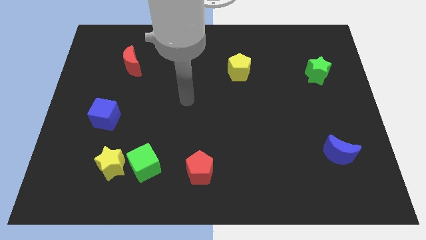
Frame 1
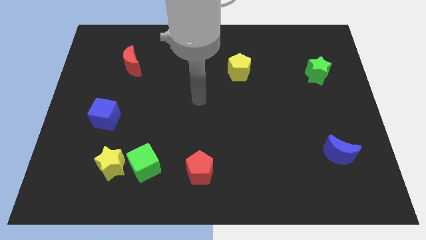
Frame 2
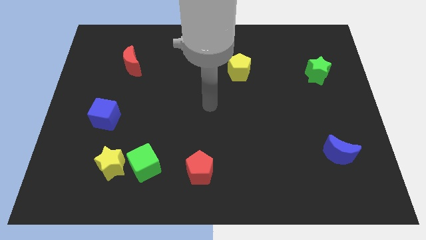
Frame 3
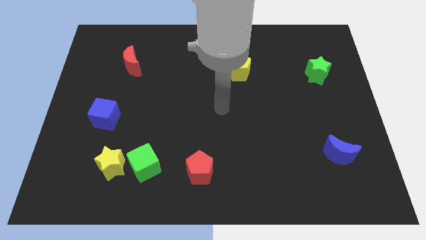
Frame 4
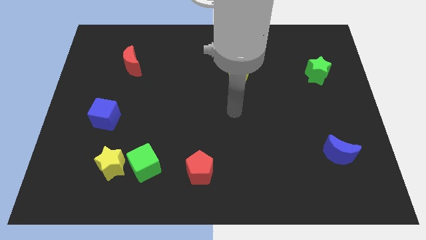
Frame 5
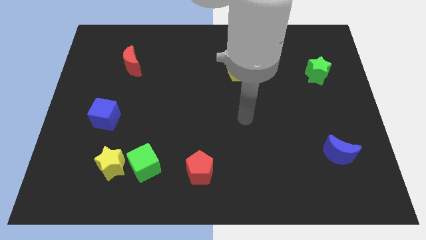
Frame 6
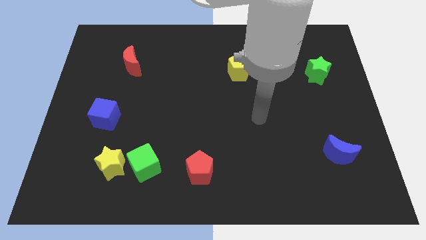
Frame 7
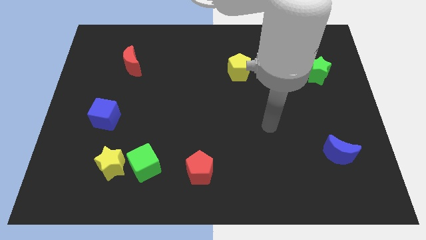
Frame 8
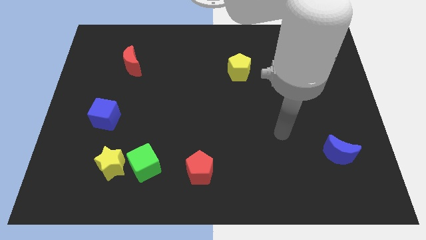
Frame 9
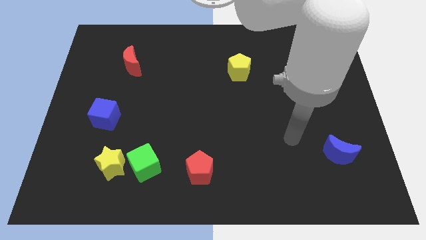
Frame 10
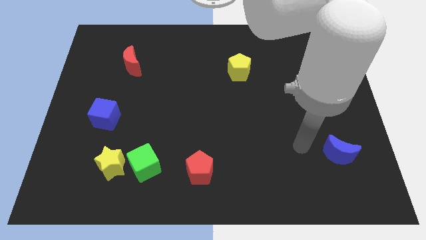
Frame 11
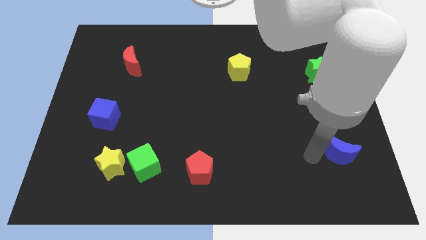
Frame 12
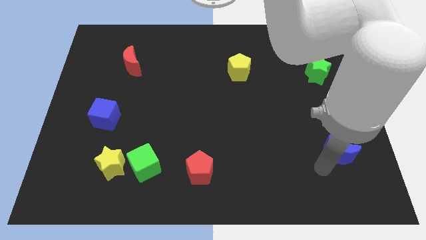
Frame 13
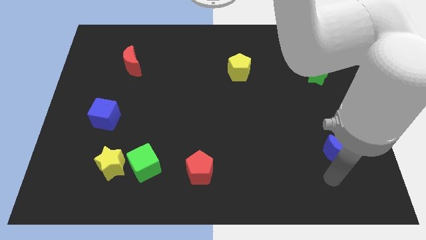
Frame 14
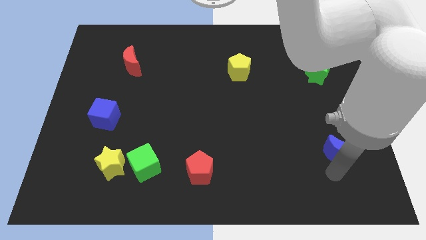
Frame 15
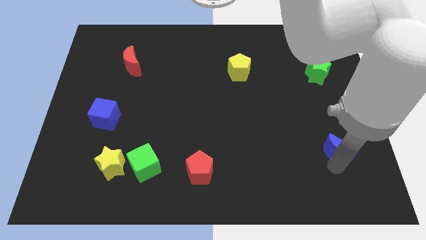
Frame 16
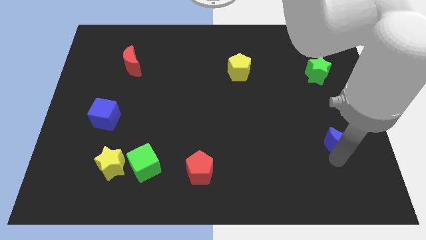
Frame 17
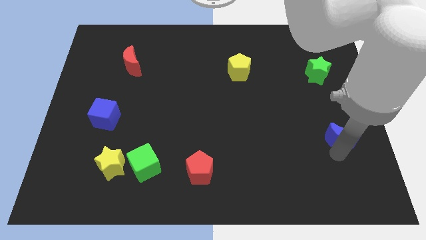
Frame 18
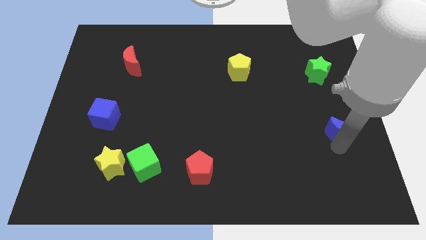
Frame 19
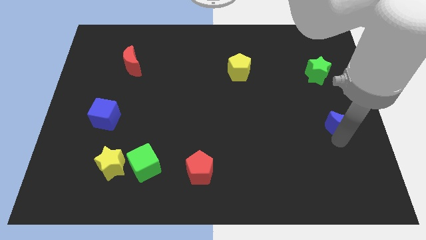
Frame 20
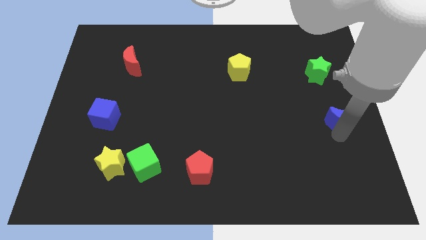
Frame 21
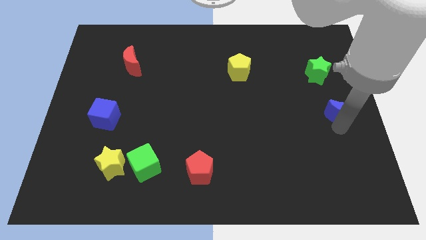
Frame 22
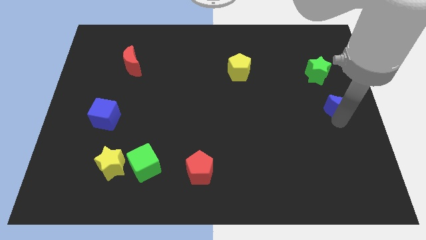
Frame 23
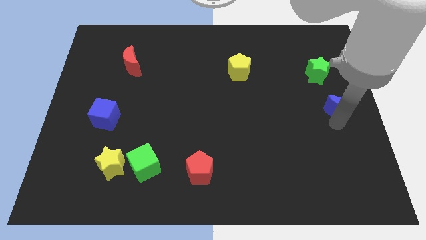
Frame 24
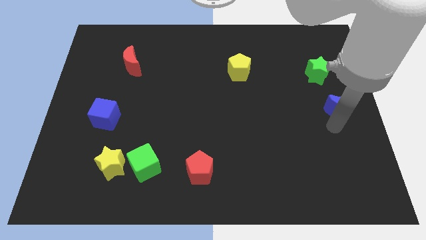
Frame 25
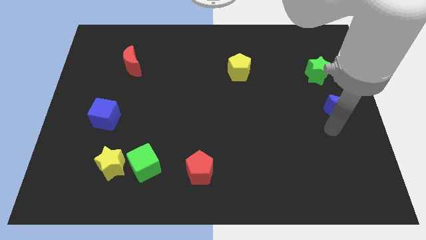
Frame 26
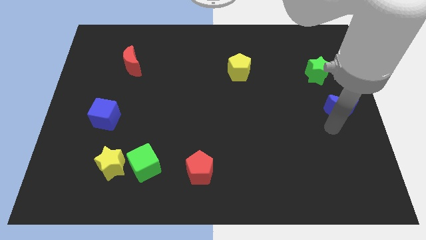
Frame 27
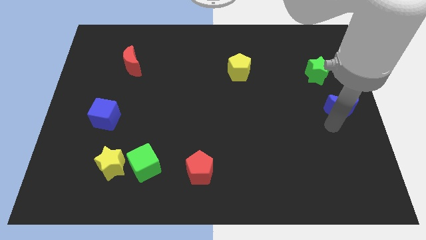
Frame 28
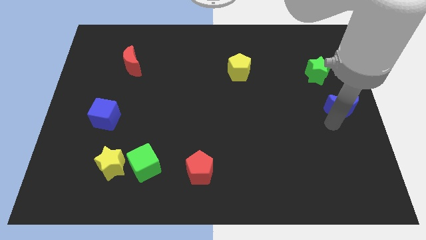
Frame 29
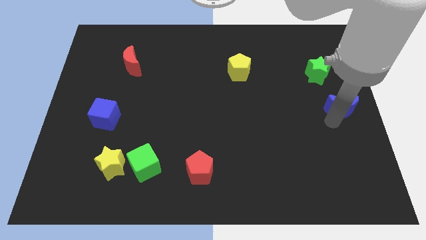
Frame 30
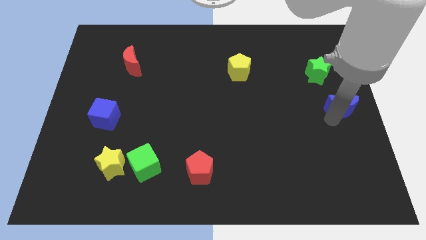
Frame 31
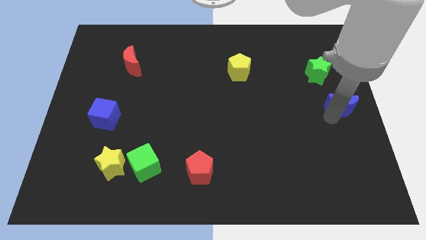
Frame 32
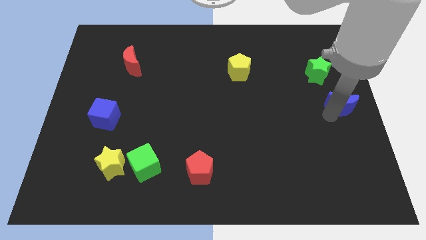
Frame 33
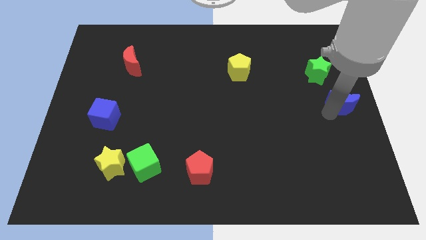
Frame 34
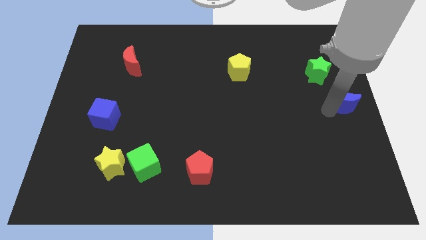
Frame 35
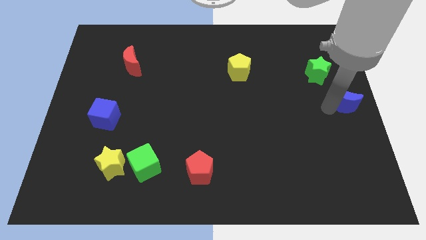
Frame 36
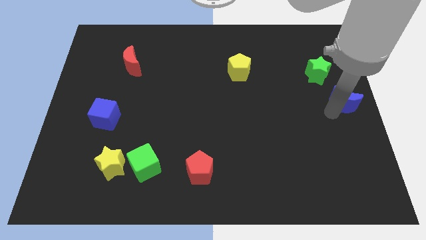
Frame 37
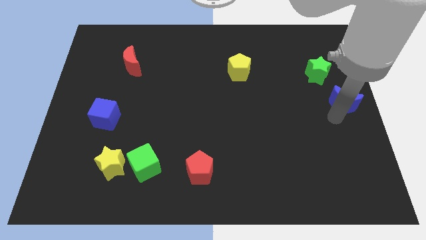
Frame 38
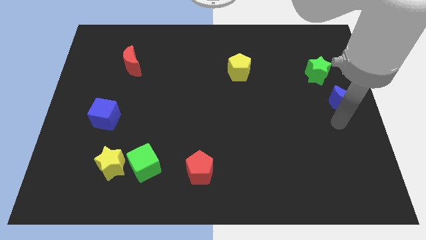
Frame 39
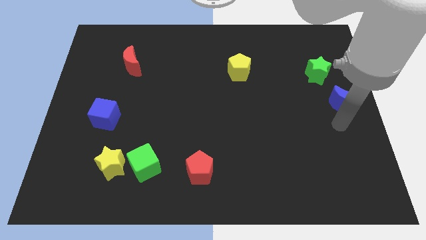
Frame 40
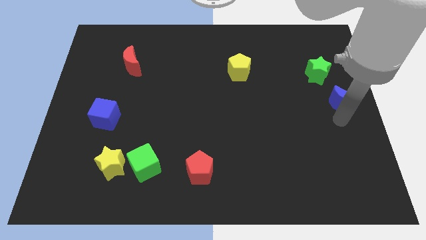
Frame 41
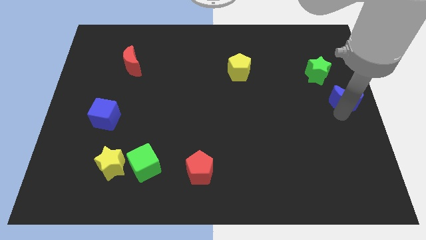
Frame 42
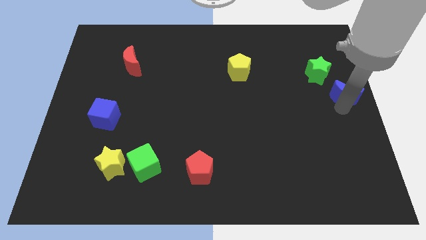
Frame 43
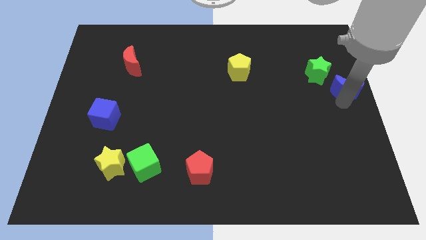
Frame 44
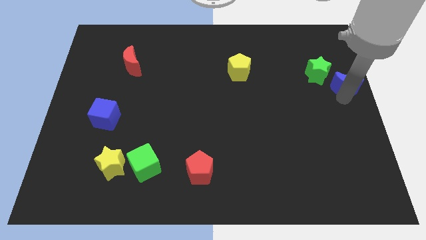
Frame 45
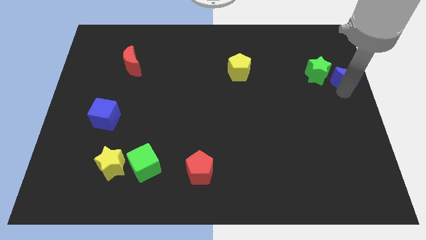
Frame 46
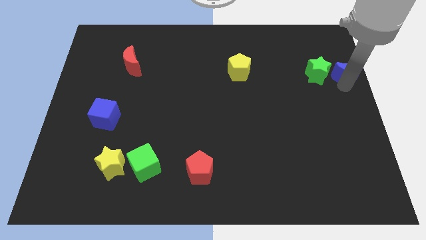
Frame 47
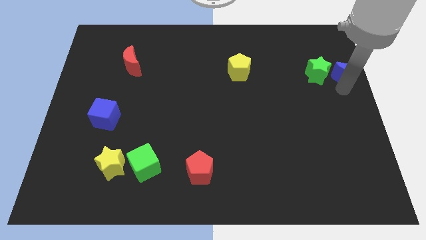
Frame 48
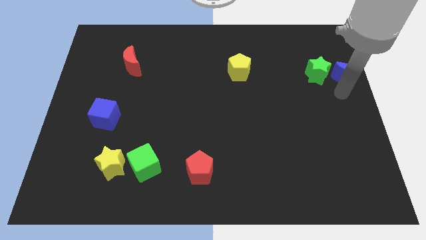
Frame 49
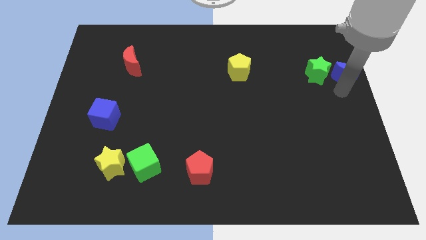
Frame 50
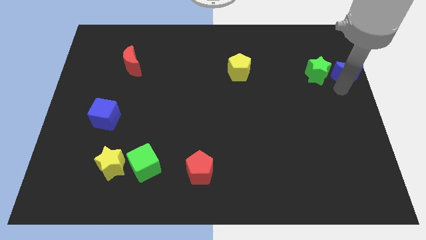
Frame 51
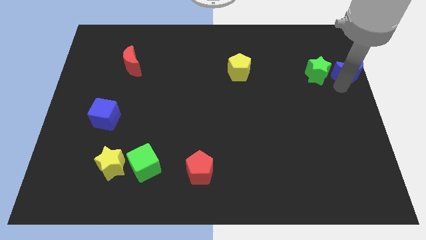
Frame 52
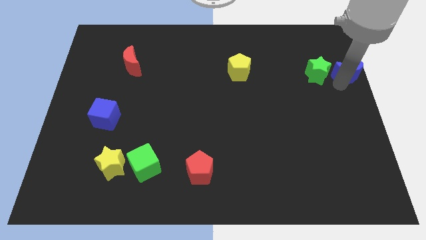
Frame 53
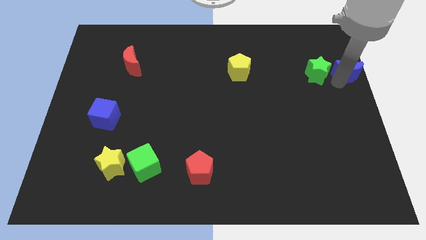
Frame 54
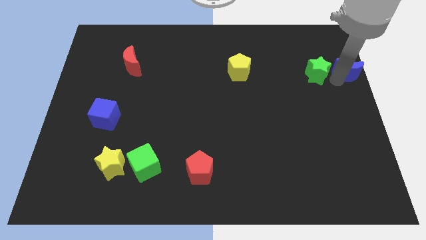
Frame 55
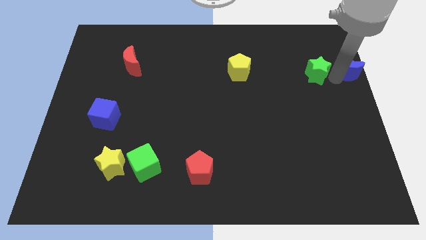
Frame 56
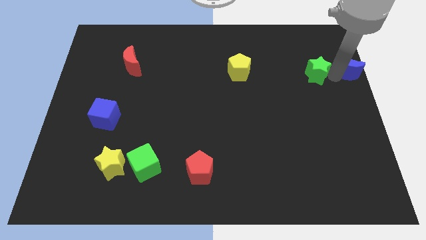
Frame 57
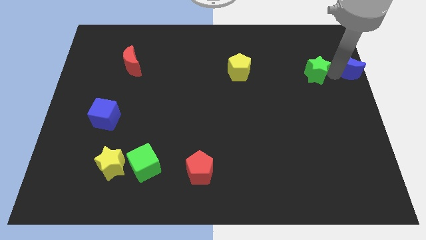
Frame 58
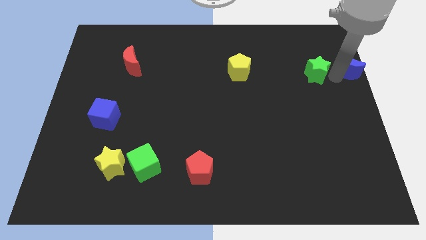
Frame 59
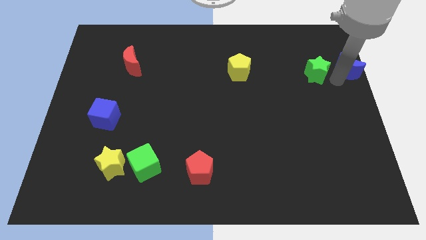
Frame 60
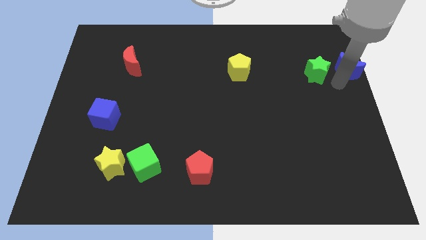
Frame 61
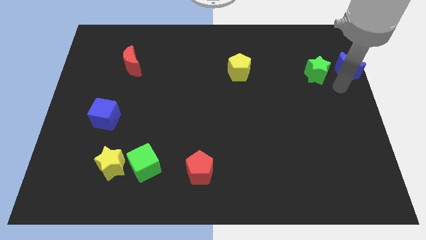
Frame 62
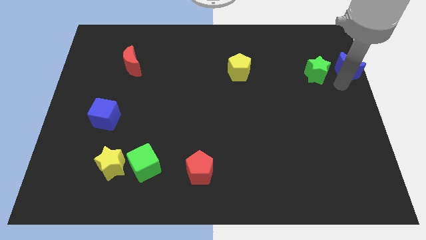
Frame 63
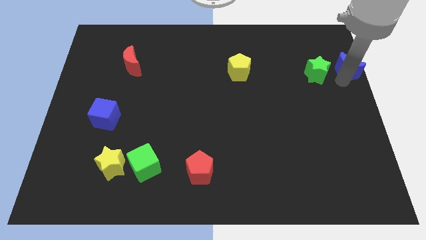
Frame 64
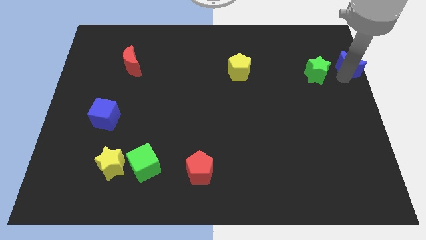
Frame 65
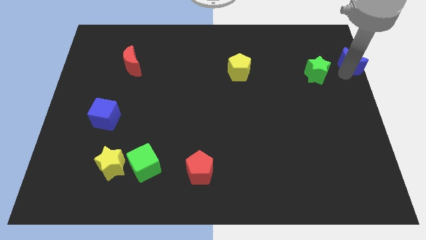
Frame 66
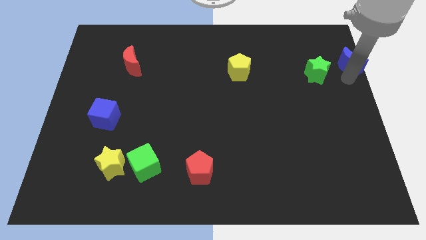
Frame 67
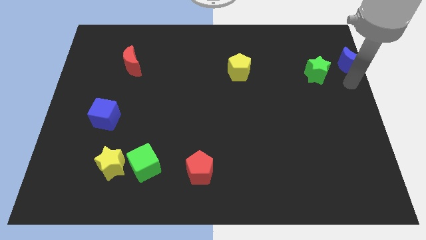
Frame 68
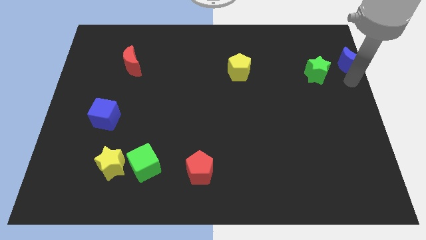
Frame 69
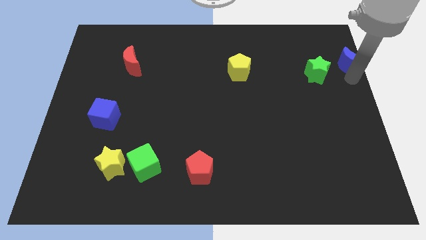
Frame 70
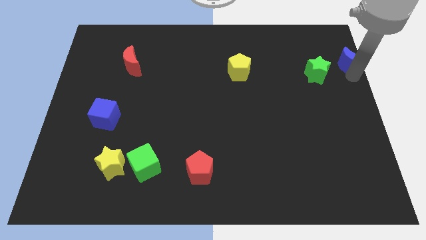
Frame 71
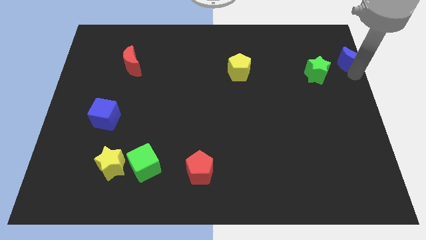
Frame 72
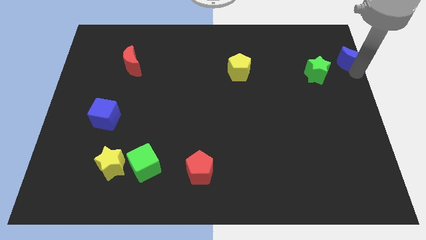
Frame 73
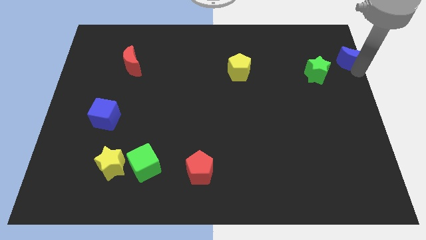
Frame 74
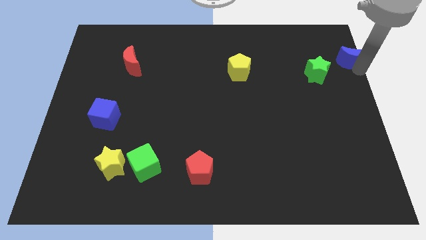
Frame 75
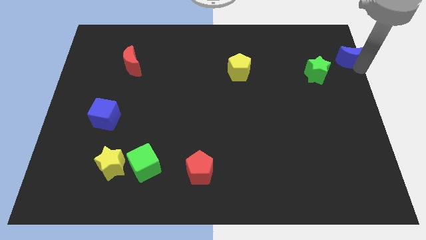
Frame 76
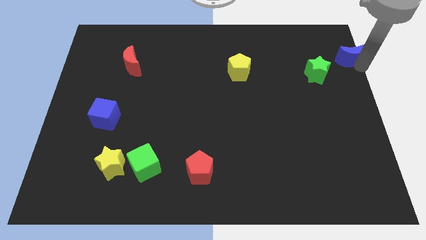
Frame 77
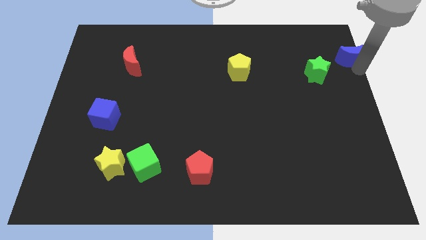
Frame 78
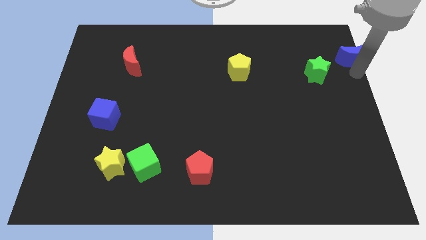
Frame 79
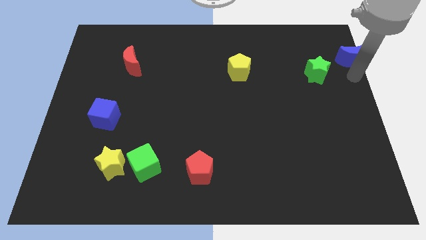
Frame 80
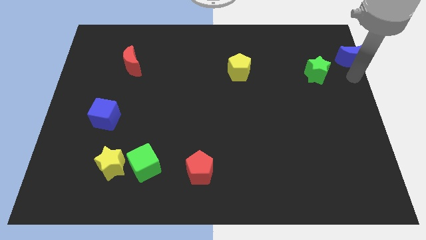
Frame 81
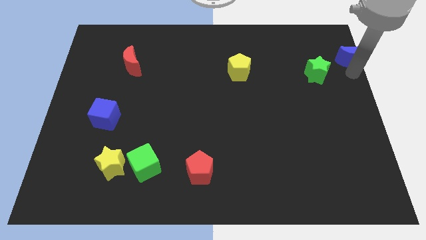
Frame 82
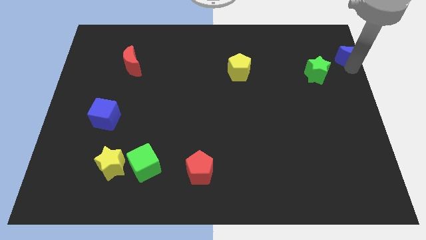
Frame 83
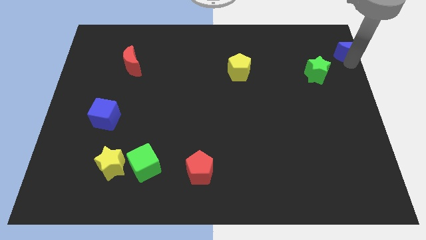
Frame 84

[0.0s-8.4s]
push the blue moon to the top right of the board
